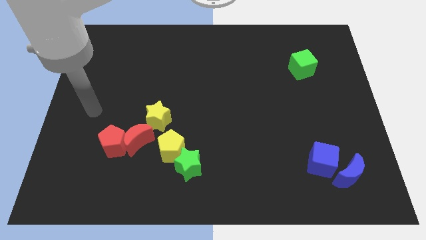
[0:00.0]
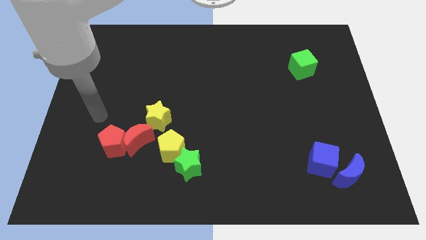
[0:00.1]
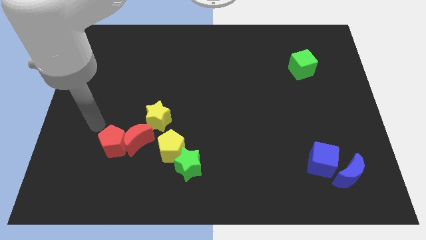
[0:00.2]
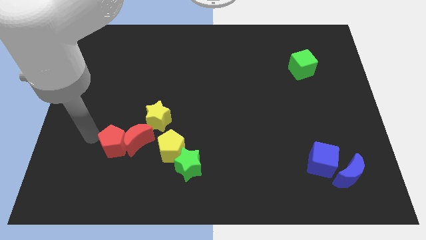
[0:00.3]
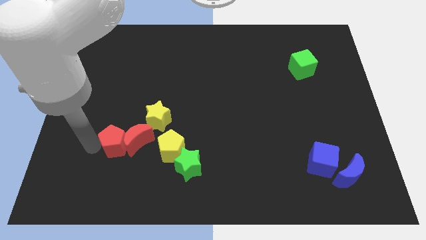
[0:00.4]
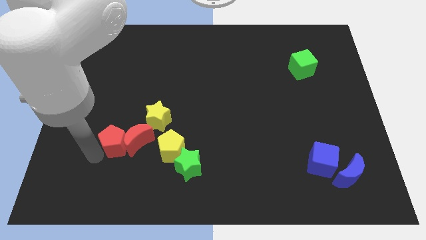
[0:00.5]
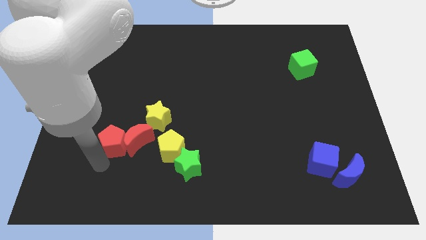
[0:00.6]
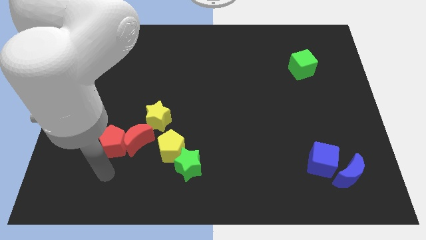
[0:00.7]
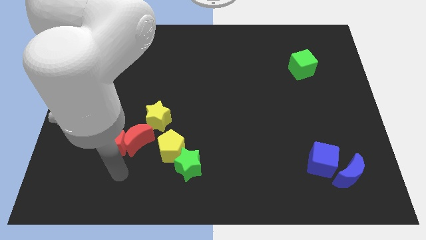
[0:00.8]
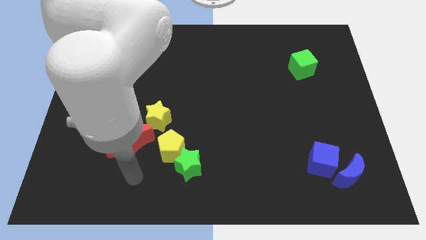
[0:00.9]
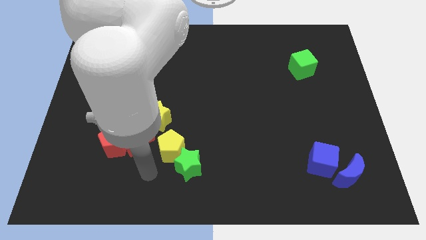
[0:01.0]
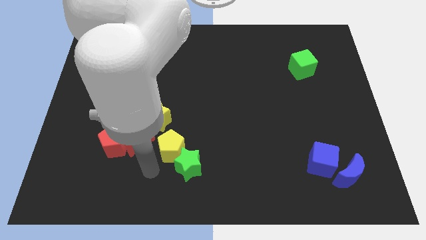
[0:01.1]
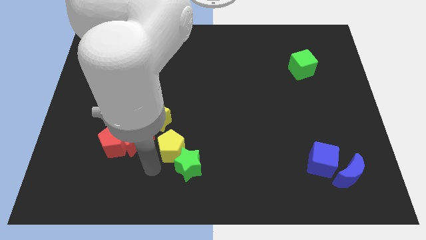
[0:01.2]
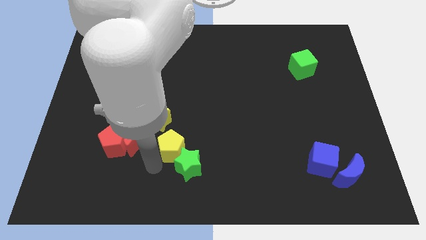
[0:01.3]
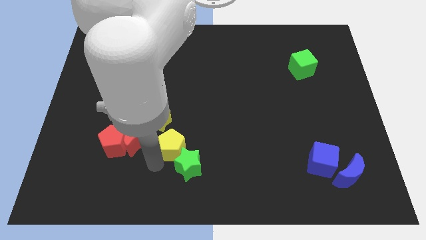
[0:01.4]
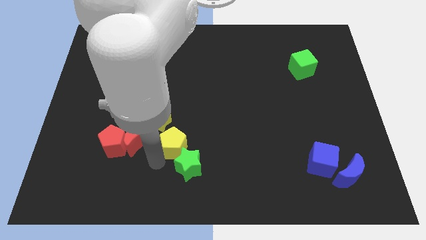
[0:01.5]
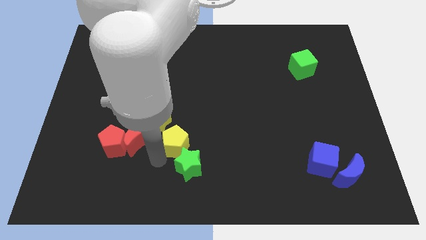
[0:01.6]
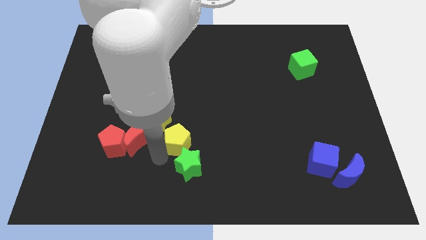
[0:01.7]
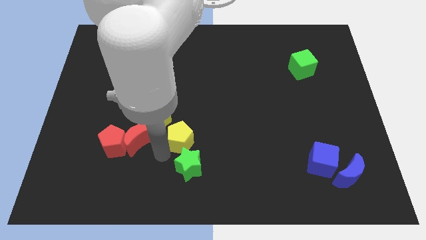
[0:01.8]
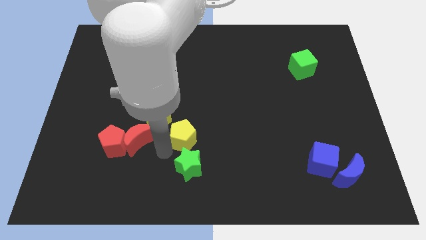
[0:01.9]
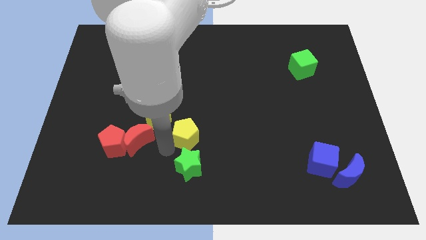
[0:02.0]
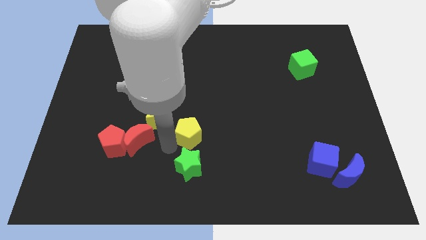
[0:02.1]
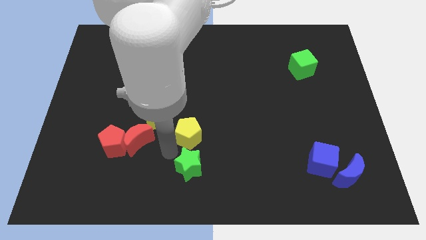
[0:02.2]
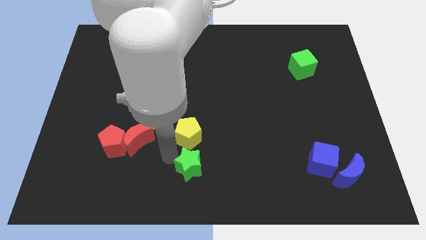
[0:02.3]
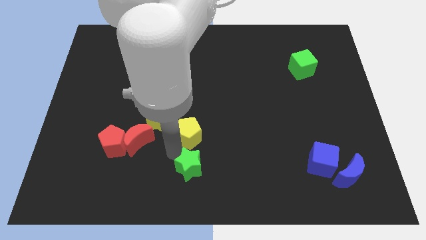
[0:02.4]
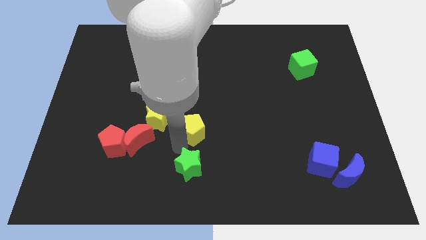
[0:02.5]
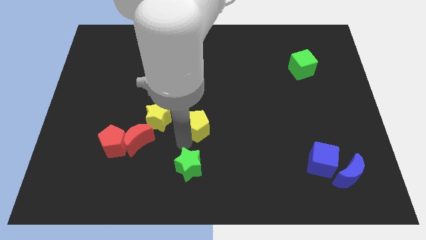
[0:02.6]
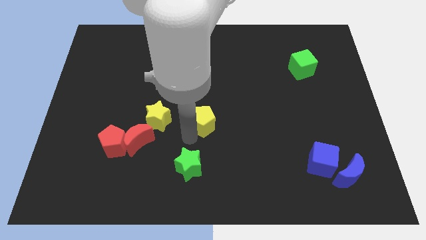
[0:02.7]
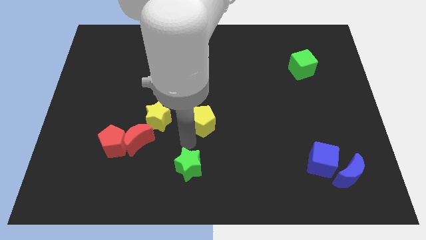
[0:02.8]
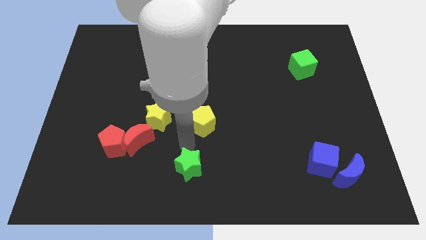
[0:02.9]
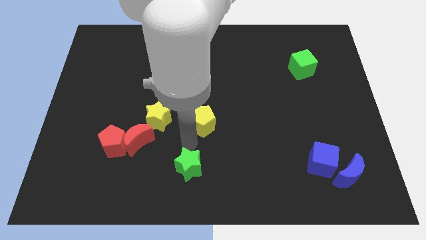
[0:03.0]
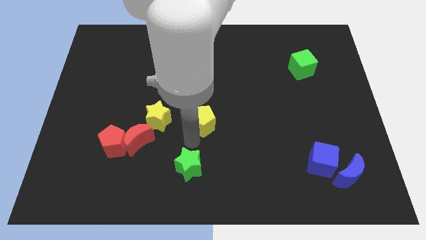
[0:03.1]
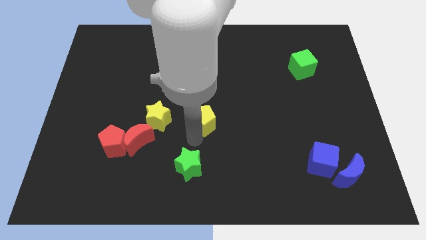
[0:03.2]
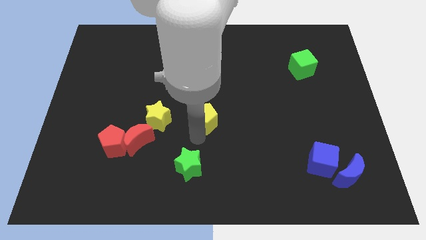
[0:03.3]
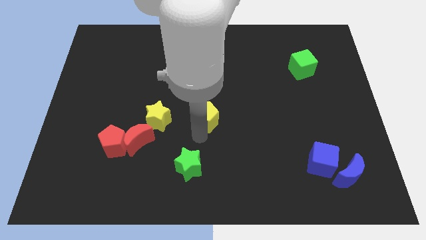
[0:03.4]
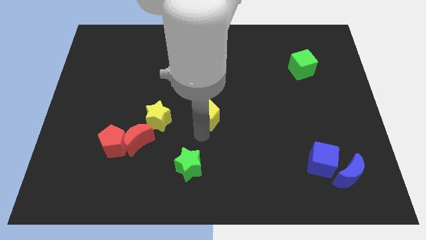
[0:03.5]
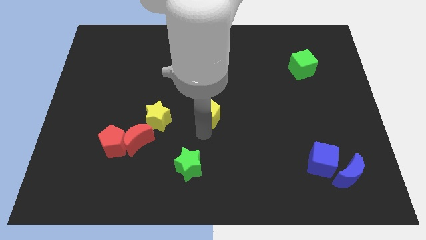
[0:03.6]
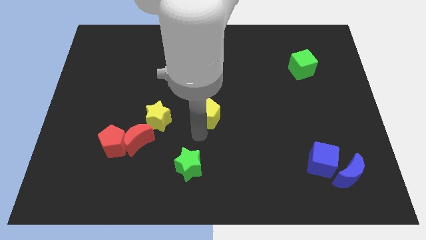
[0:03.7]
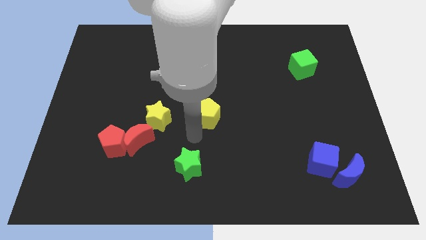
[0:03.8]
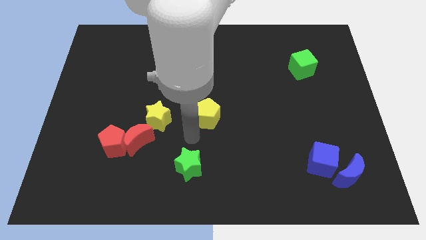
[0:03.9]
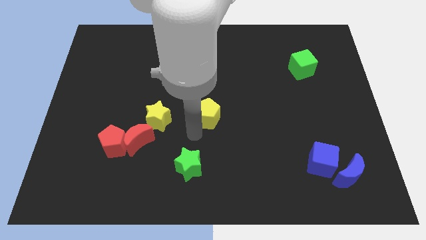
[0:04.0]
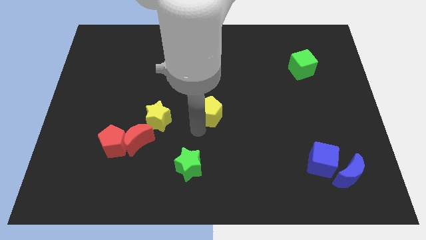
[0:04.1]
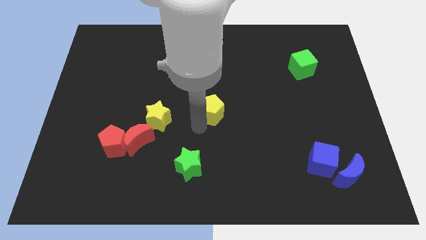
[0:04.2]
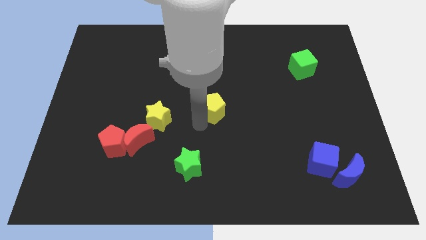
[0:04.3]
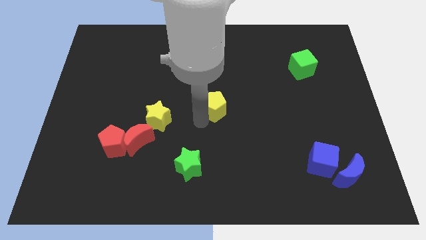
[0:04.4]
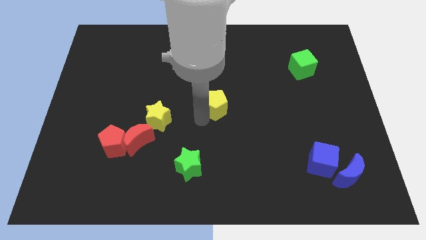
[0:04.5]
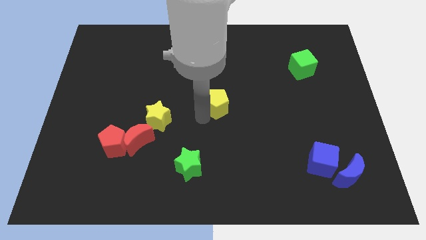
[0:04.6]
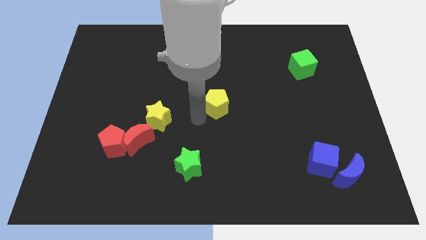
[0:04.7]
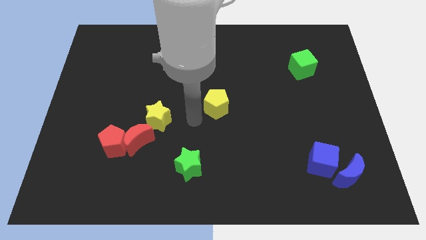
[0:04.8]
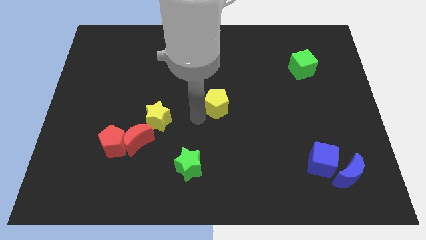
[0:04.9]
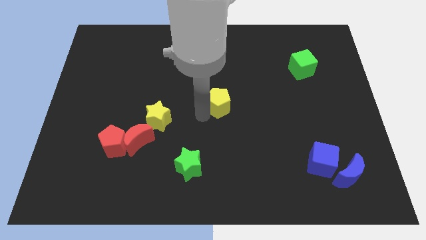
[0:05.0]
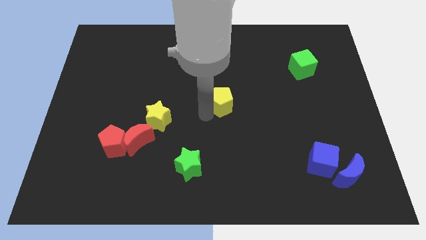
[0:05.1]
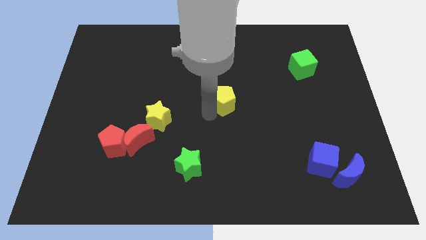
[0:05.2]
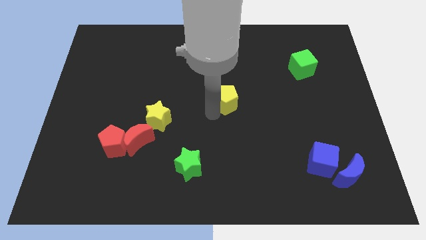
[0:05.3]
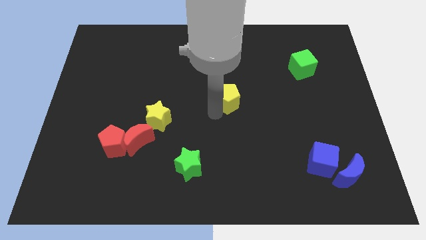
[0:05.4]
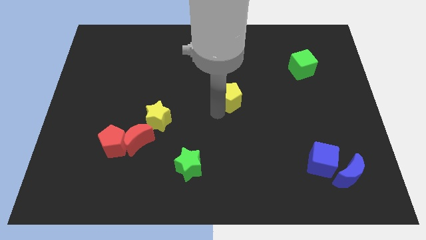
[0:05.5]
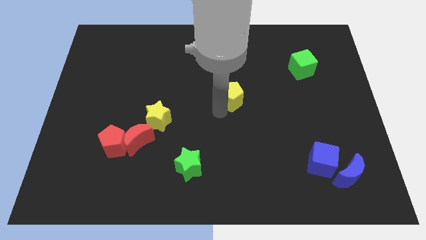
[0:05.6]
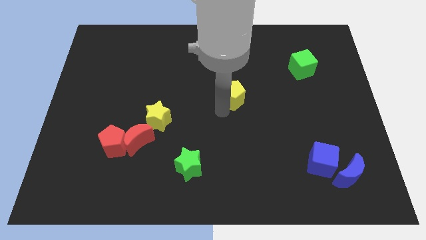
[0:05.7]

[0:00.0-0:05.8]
slide the yellow pentagon up and then to the right

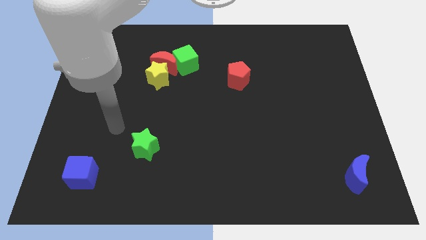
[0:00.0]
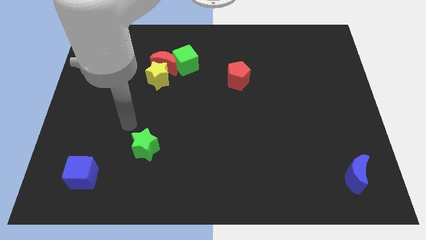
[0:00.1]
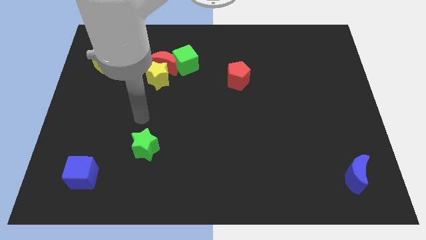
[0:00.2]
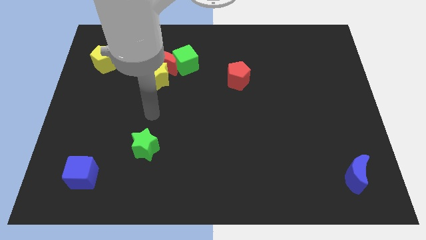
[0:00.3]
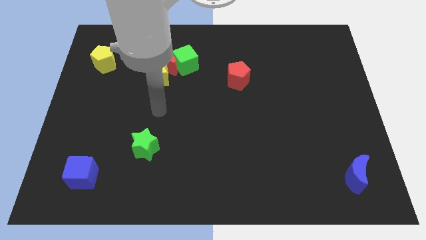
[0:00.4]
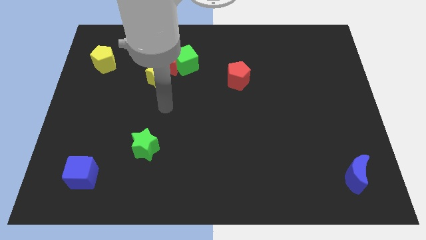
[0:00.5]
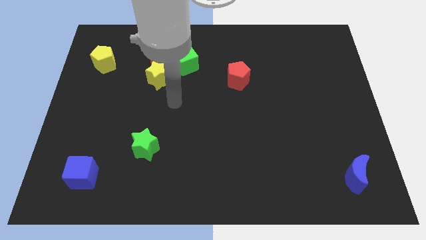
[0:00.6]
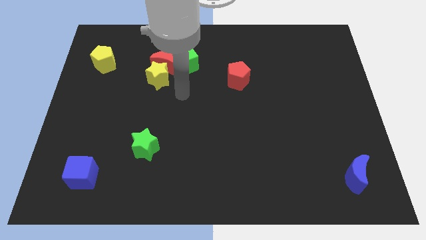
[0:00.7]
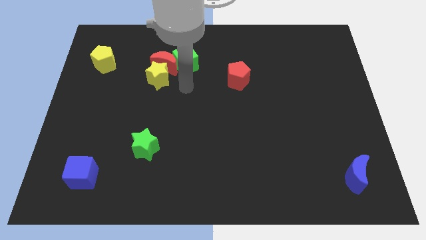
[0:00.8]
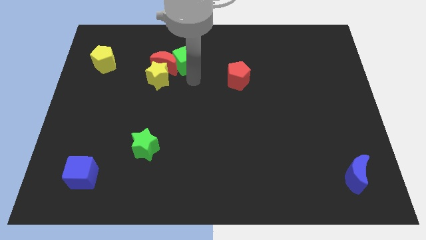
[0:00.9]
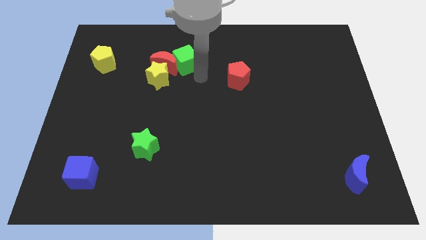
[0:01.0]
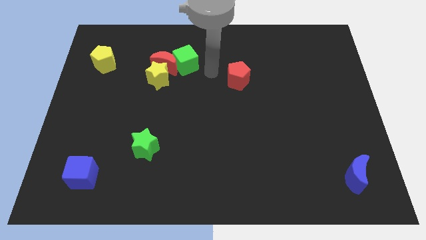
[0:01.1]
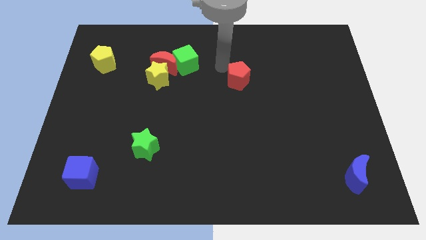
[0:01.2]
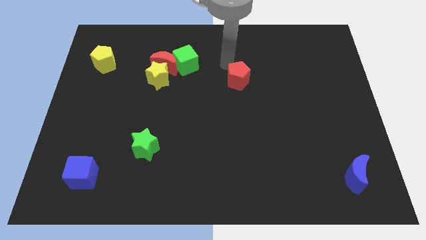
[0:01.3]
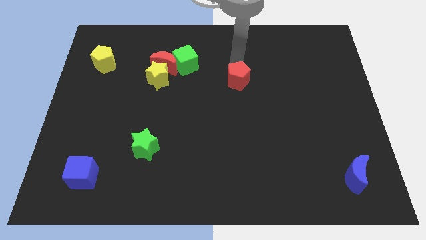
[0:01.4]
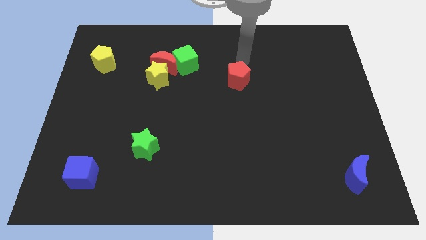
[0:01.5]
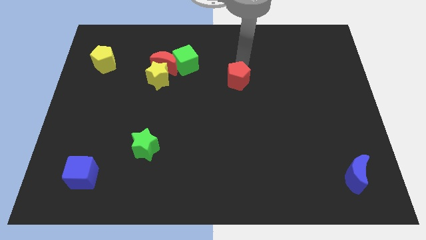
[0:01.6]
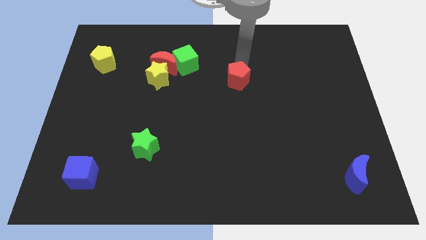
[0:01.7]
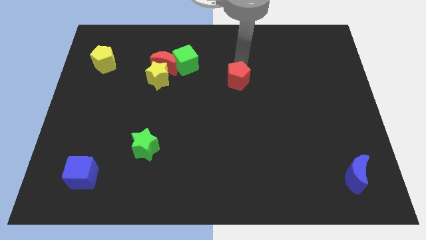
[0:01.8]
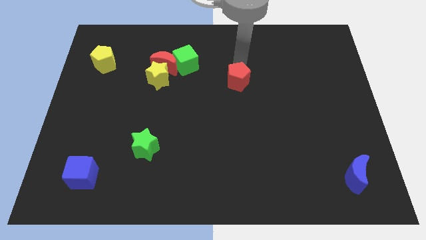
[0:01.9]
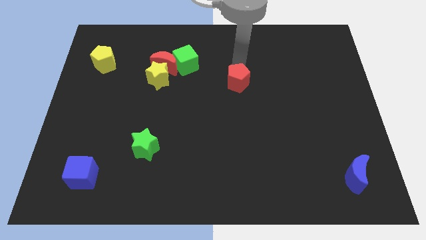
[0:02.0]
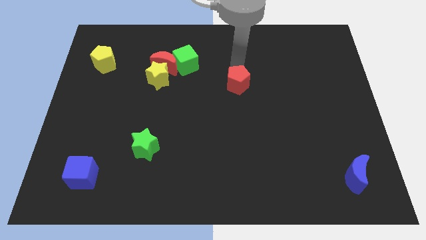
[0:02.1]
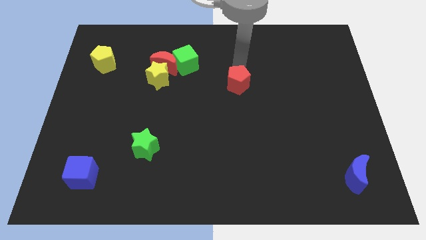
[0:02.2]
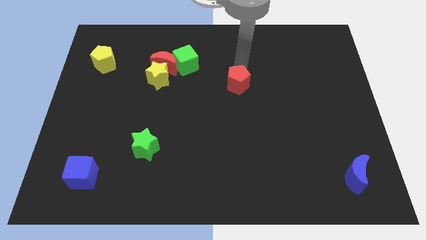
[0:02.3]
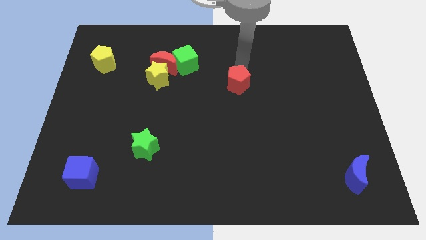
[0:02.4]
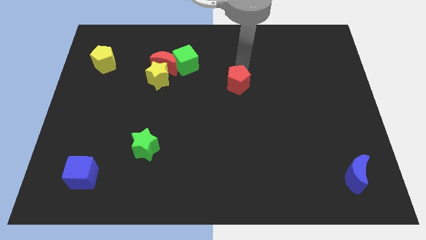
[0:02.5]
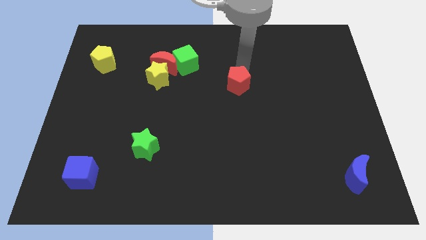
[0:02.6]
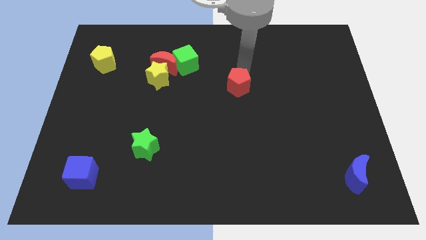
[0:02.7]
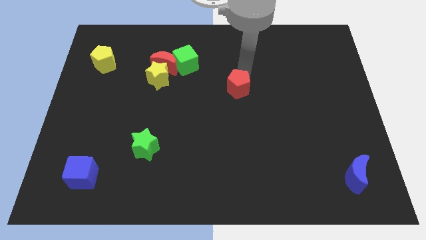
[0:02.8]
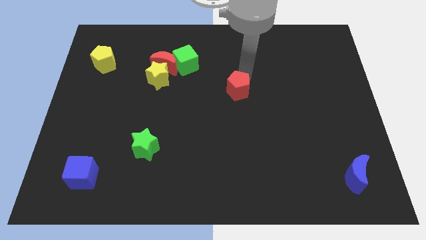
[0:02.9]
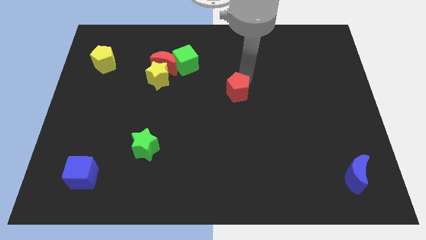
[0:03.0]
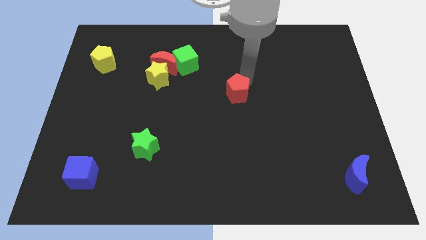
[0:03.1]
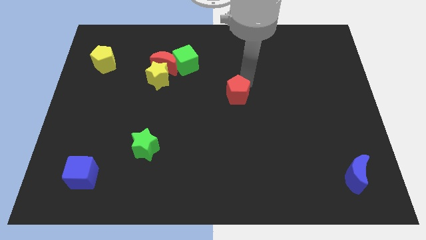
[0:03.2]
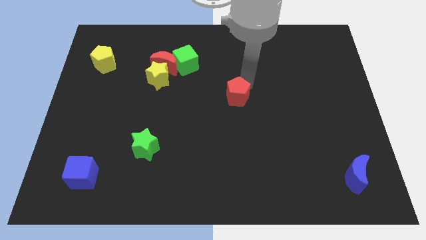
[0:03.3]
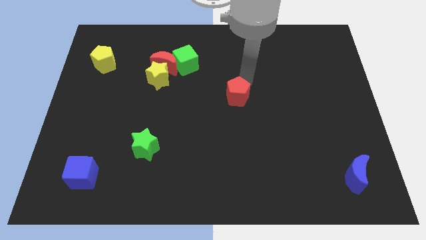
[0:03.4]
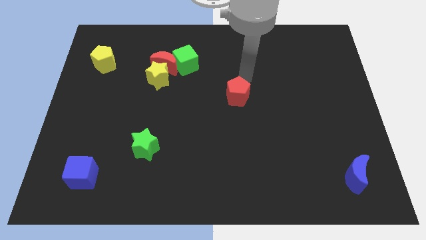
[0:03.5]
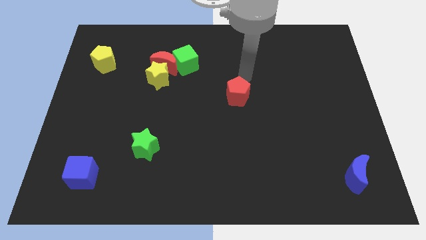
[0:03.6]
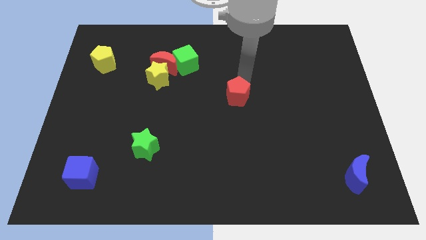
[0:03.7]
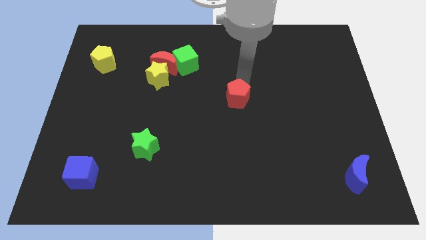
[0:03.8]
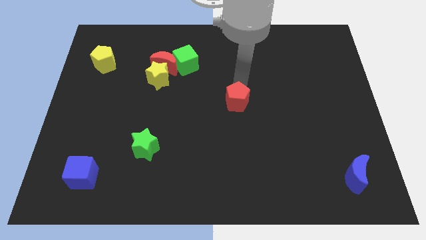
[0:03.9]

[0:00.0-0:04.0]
slide the red pentagon somewhat downwards
